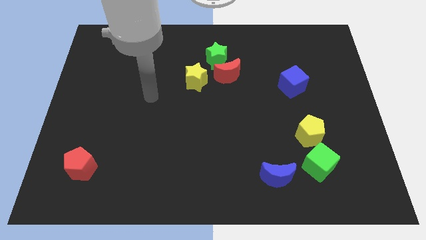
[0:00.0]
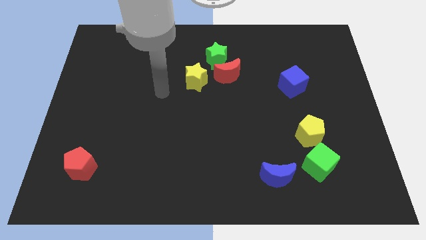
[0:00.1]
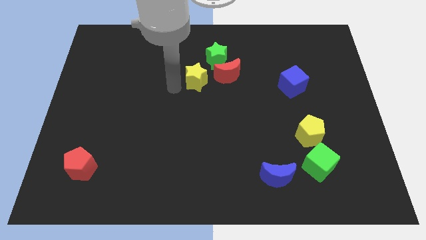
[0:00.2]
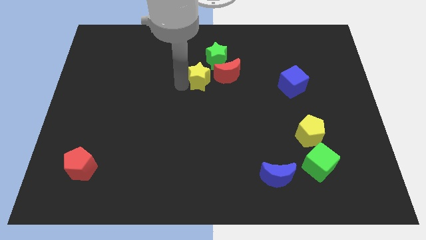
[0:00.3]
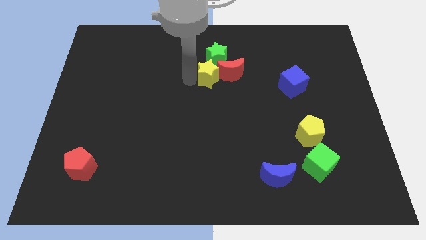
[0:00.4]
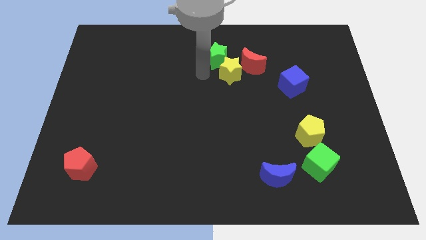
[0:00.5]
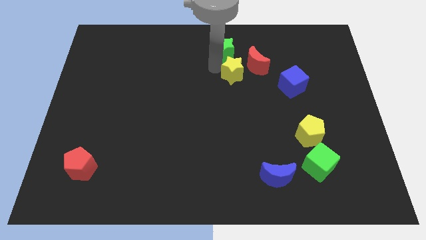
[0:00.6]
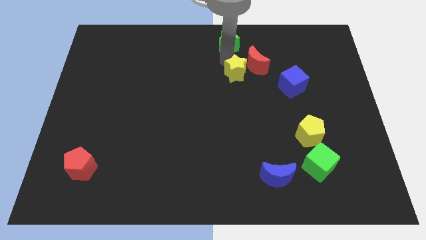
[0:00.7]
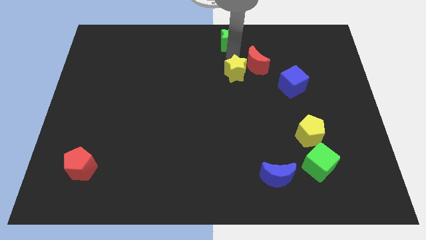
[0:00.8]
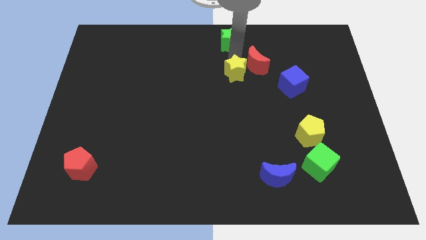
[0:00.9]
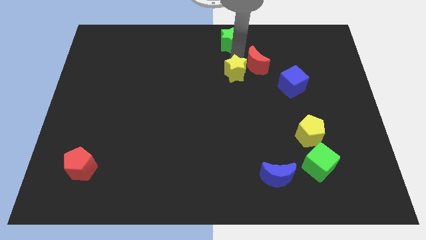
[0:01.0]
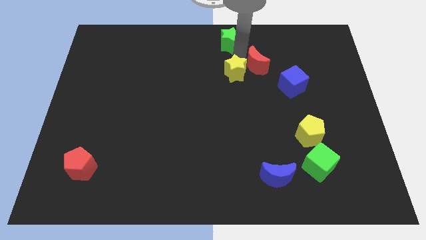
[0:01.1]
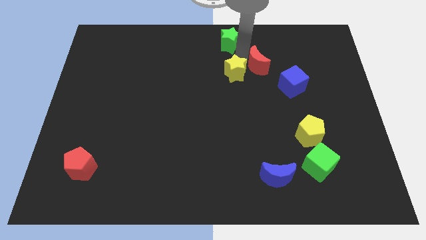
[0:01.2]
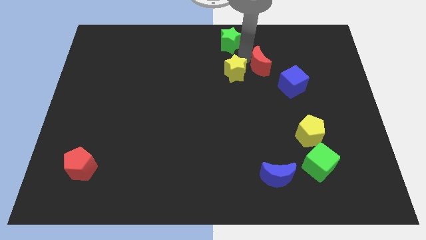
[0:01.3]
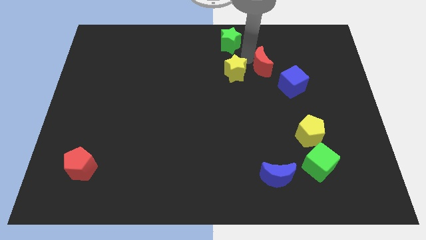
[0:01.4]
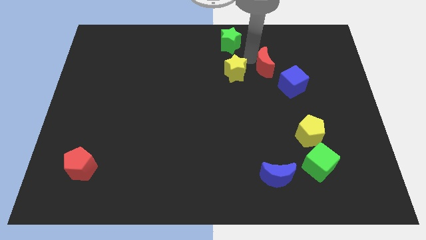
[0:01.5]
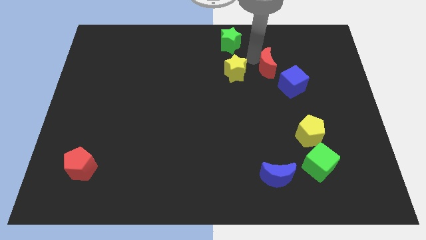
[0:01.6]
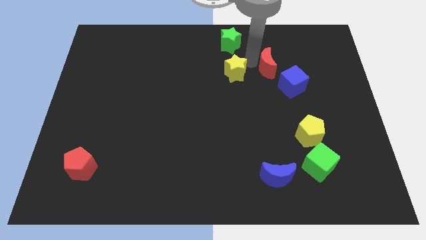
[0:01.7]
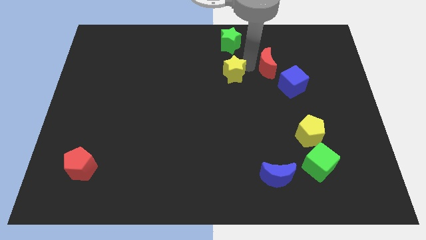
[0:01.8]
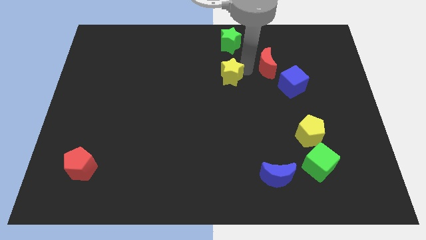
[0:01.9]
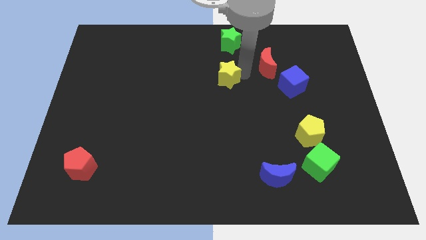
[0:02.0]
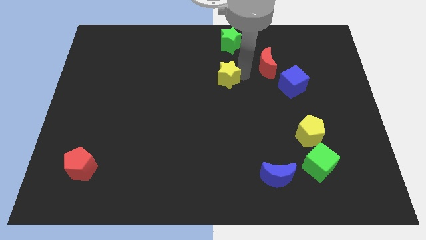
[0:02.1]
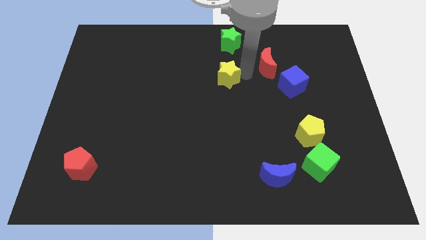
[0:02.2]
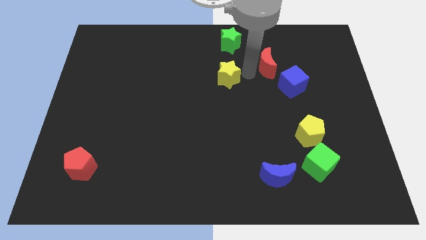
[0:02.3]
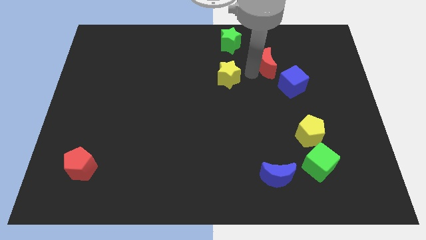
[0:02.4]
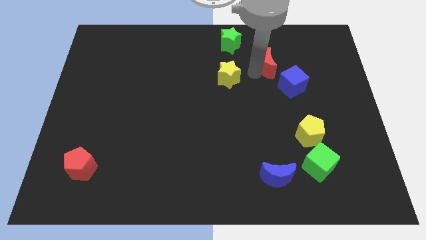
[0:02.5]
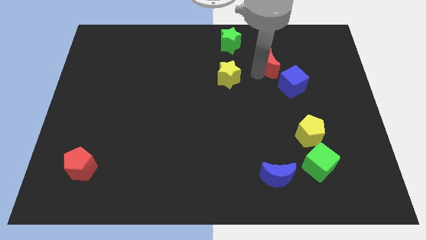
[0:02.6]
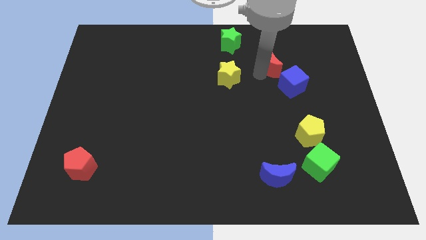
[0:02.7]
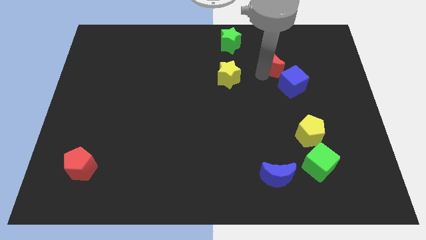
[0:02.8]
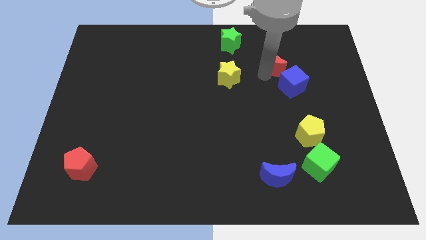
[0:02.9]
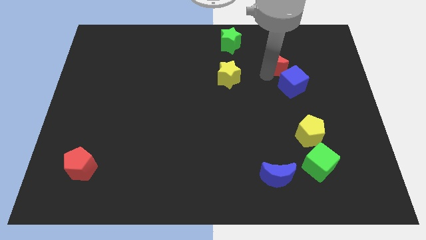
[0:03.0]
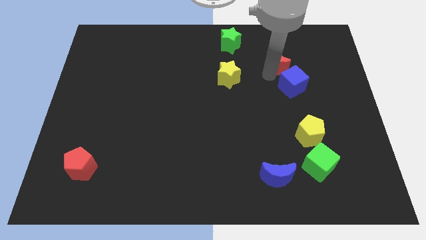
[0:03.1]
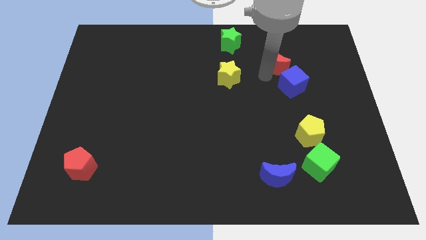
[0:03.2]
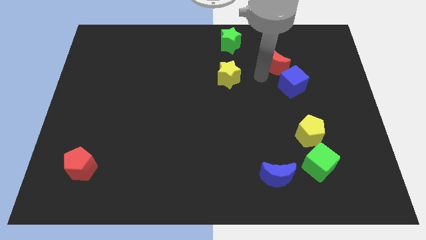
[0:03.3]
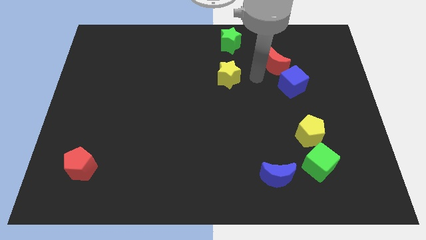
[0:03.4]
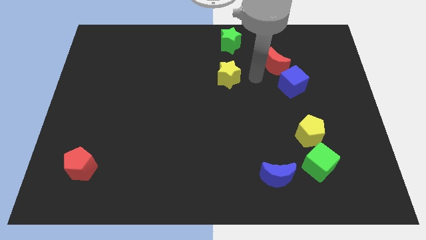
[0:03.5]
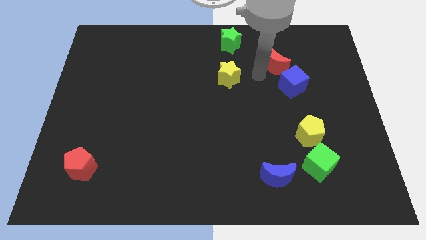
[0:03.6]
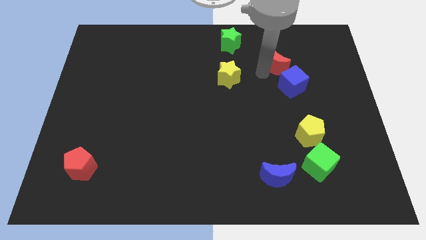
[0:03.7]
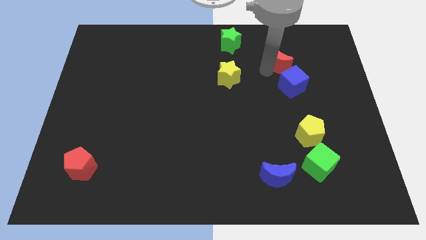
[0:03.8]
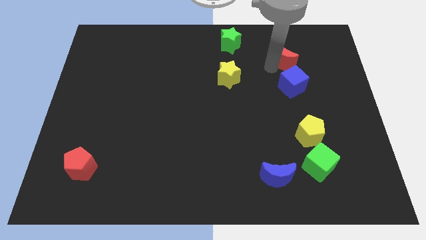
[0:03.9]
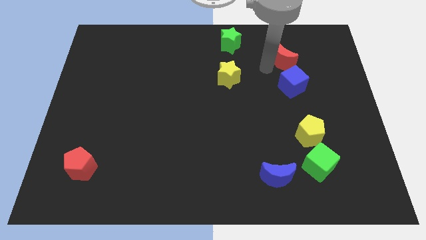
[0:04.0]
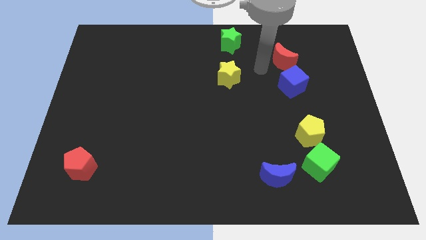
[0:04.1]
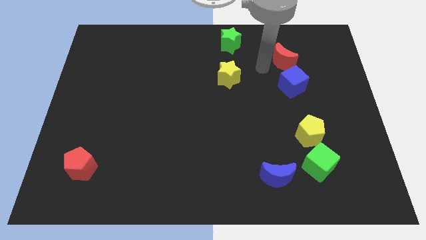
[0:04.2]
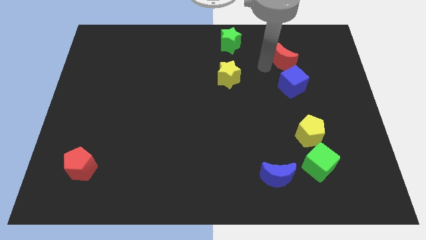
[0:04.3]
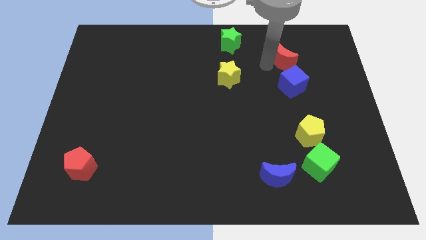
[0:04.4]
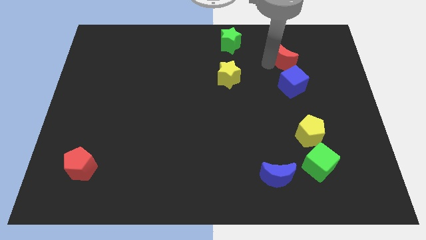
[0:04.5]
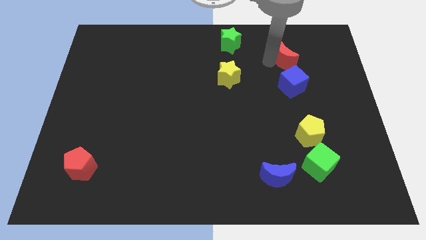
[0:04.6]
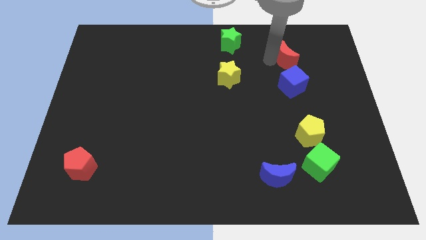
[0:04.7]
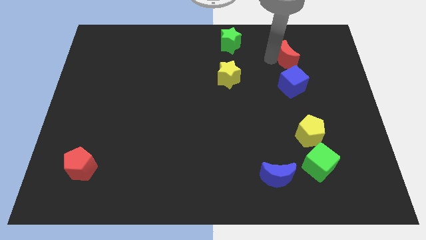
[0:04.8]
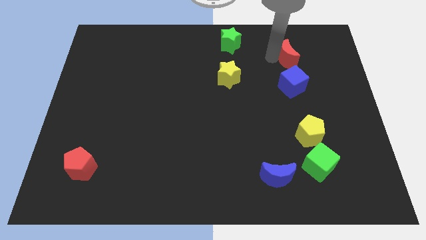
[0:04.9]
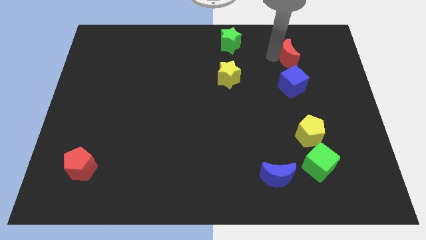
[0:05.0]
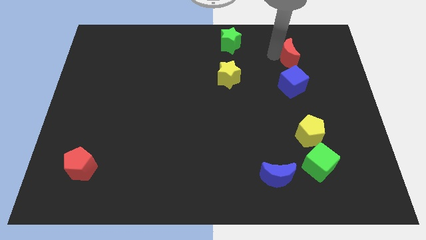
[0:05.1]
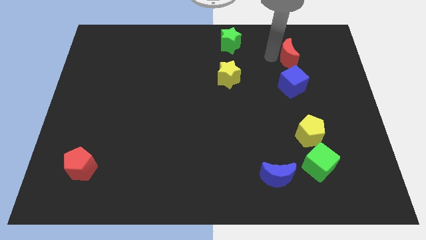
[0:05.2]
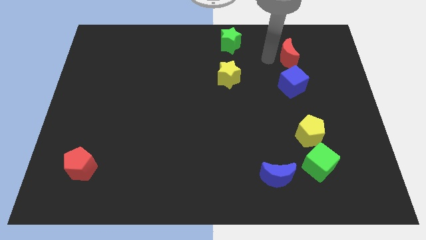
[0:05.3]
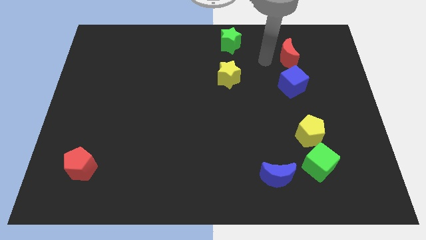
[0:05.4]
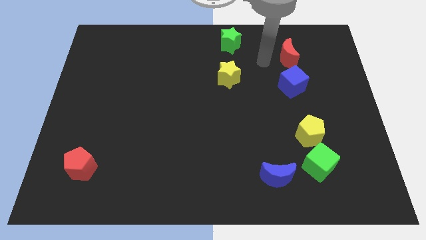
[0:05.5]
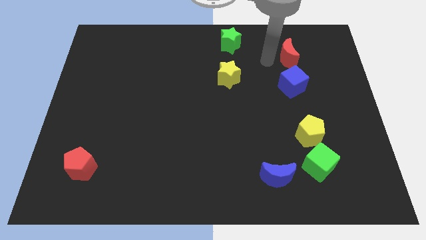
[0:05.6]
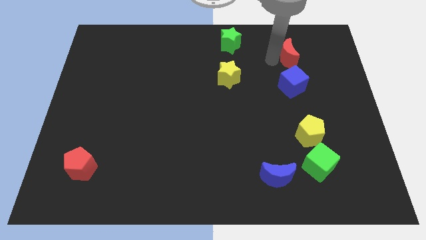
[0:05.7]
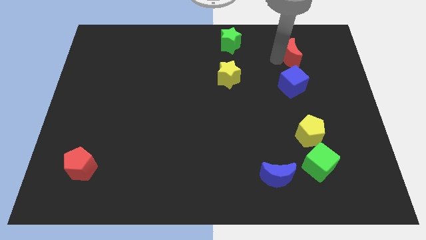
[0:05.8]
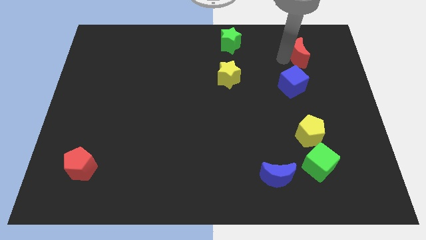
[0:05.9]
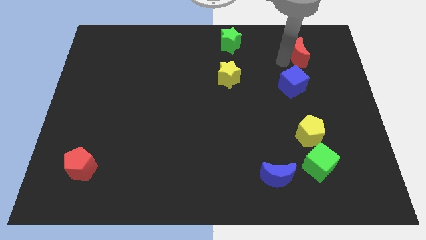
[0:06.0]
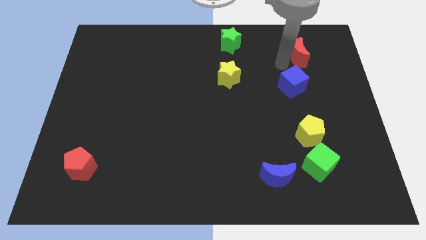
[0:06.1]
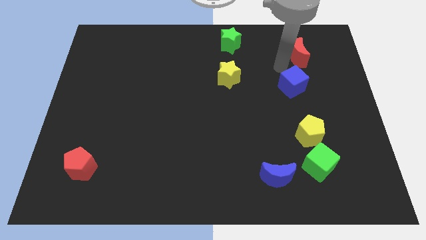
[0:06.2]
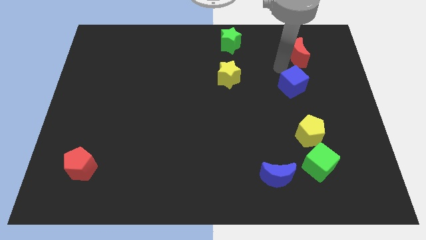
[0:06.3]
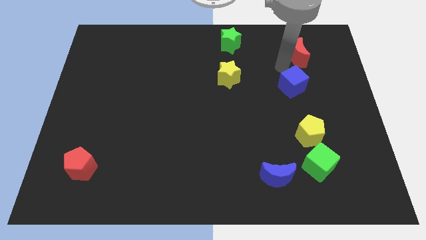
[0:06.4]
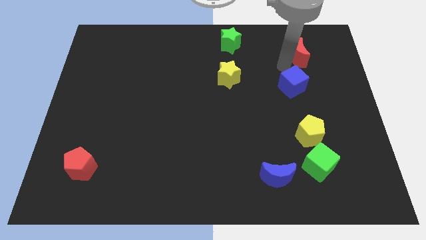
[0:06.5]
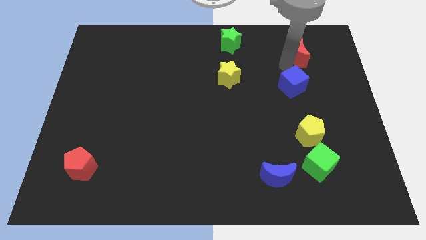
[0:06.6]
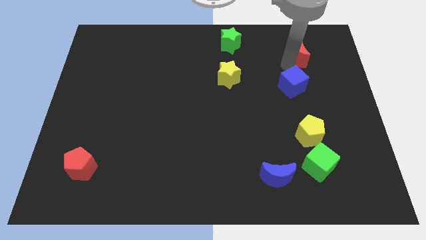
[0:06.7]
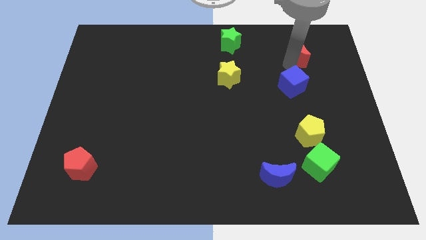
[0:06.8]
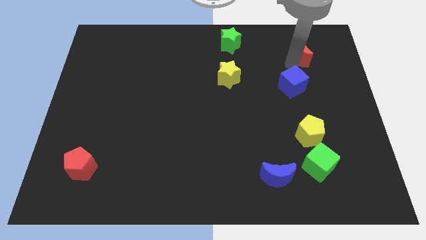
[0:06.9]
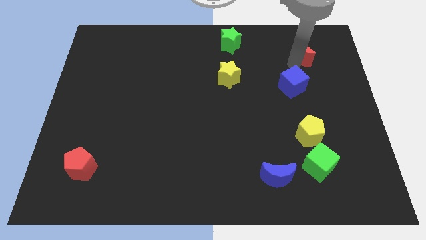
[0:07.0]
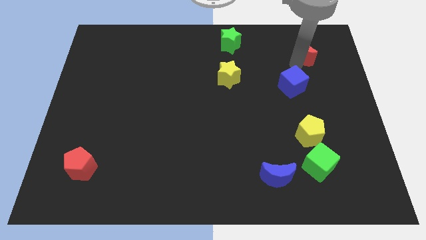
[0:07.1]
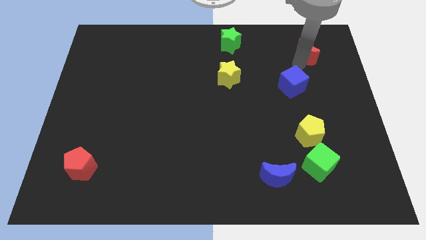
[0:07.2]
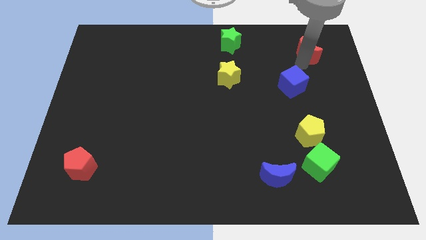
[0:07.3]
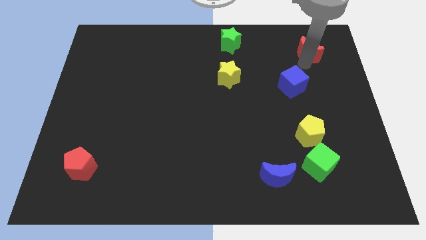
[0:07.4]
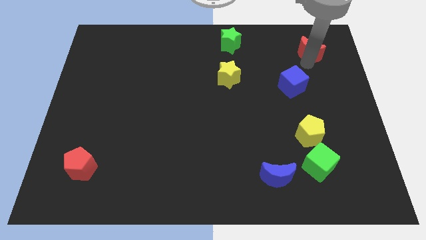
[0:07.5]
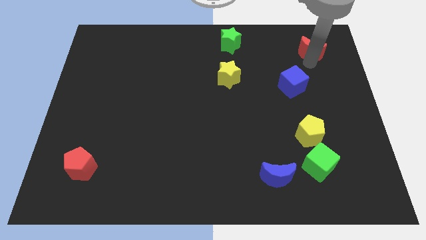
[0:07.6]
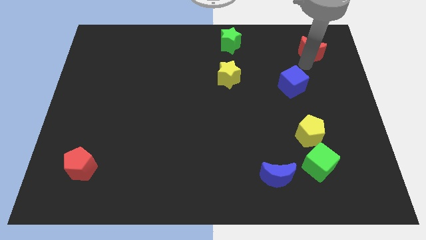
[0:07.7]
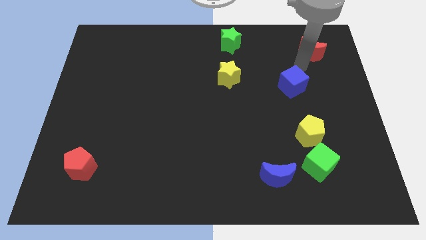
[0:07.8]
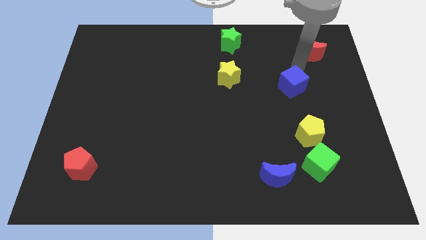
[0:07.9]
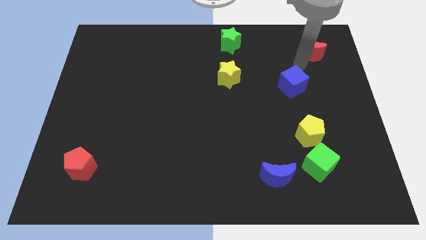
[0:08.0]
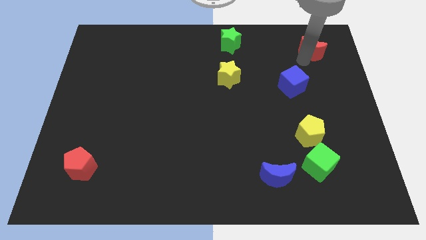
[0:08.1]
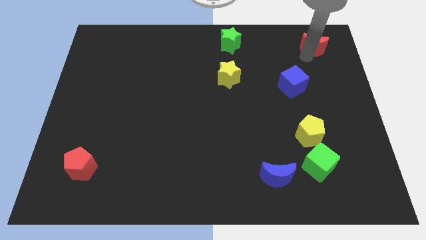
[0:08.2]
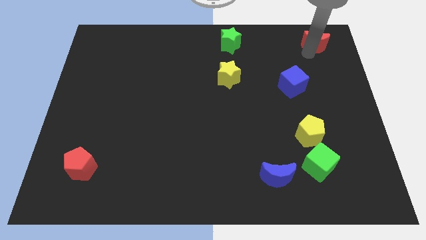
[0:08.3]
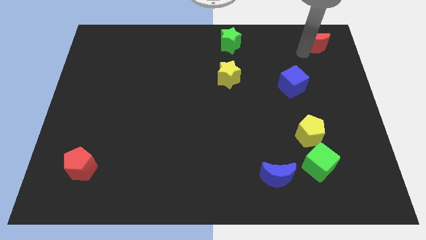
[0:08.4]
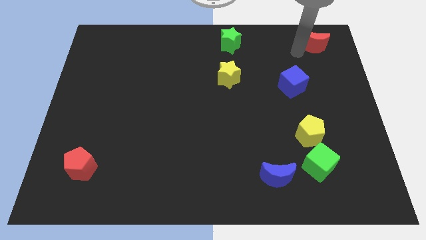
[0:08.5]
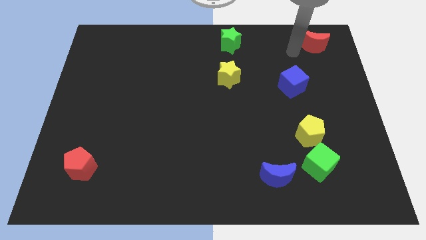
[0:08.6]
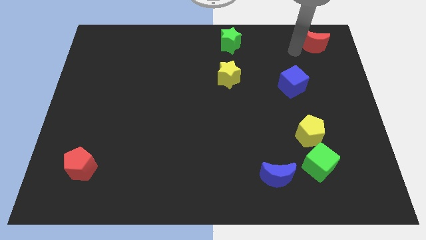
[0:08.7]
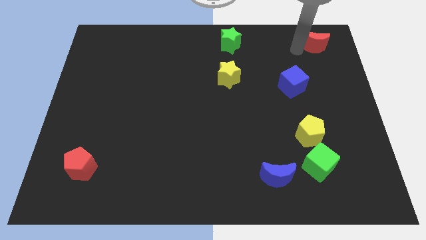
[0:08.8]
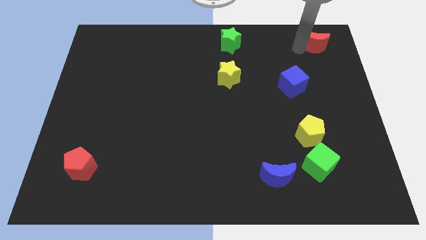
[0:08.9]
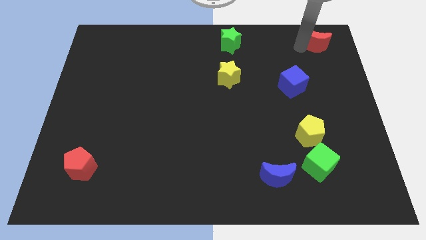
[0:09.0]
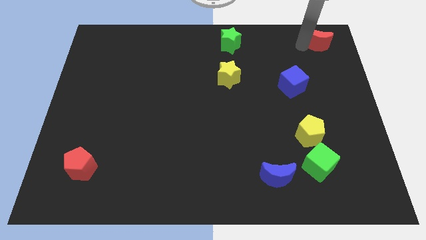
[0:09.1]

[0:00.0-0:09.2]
slide the red moon to the top right
